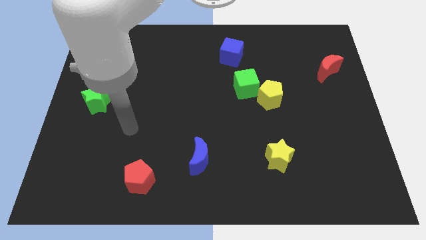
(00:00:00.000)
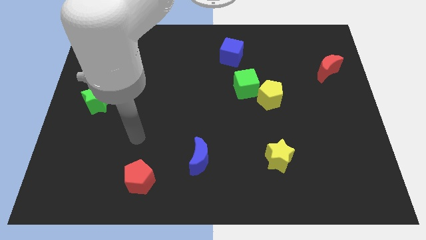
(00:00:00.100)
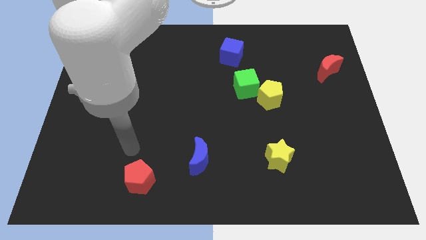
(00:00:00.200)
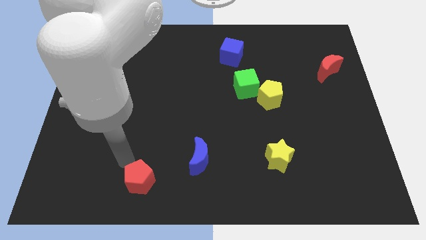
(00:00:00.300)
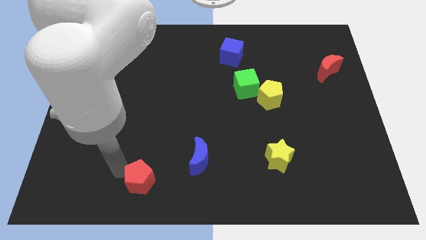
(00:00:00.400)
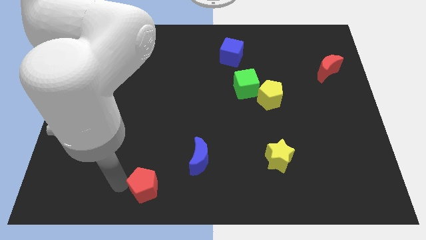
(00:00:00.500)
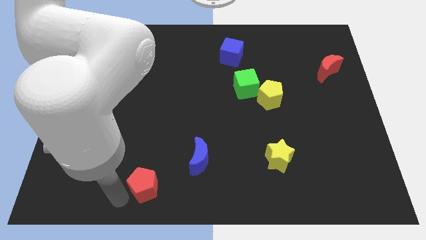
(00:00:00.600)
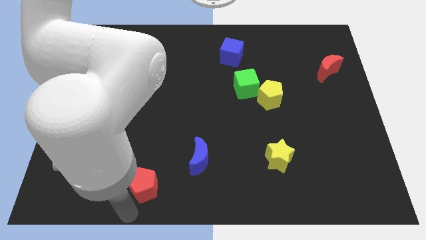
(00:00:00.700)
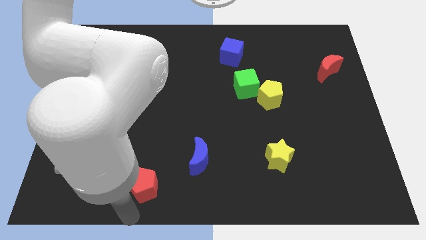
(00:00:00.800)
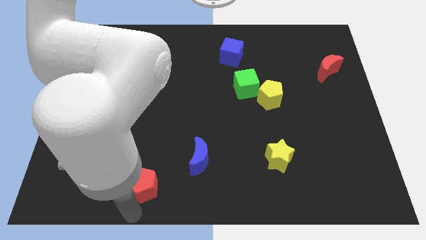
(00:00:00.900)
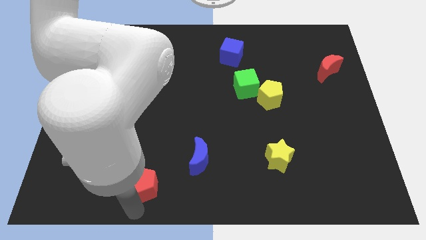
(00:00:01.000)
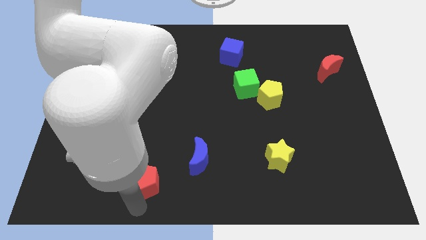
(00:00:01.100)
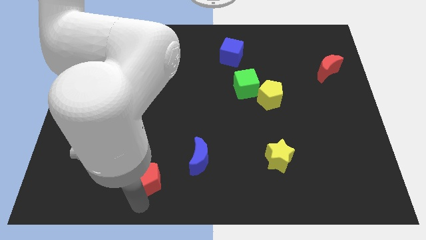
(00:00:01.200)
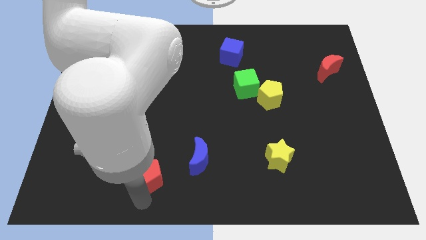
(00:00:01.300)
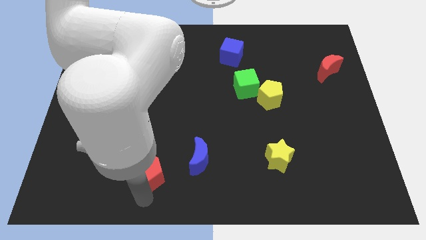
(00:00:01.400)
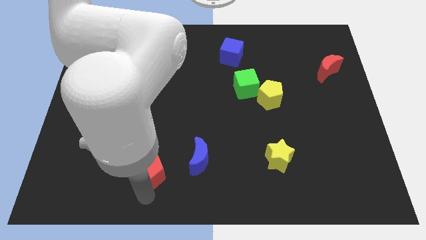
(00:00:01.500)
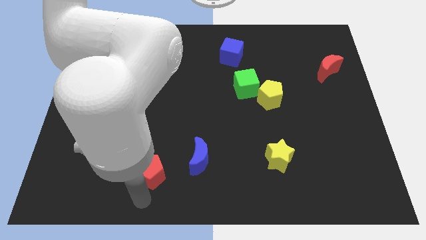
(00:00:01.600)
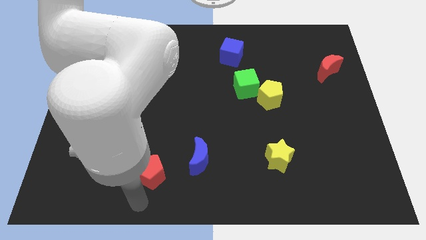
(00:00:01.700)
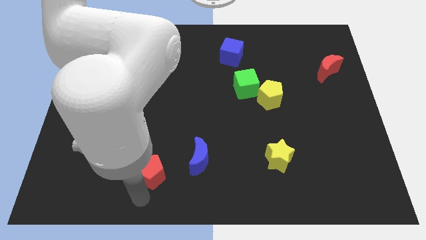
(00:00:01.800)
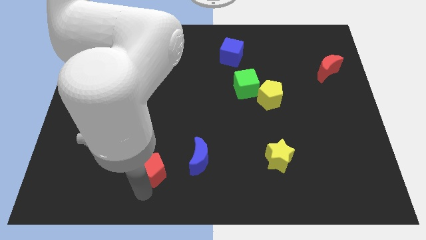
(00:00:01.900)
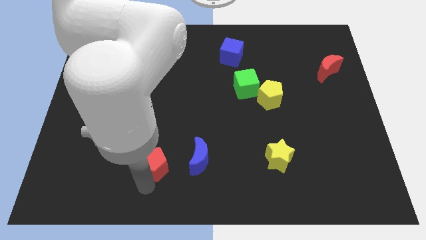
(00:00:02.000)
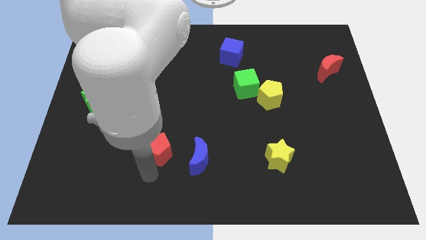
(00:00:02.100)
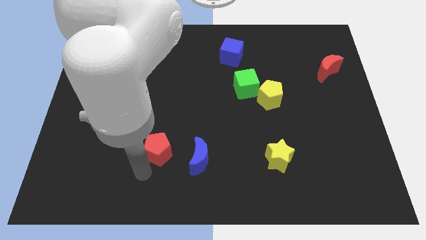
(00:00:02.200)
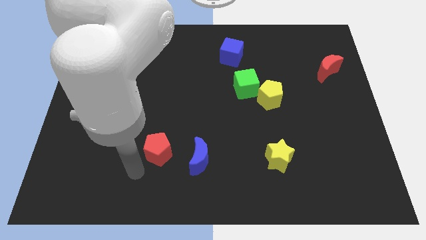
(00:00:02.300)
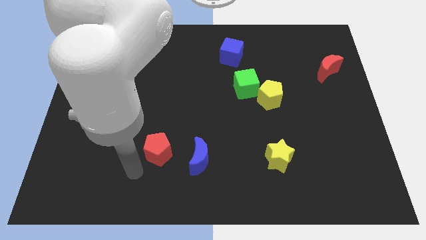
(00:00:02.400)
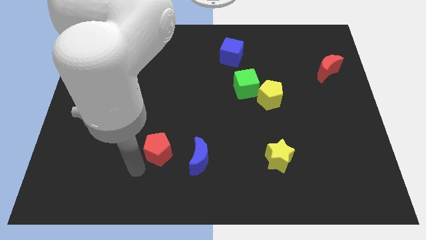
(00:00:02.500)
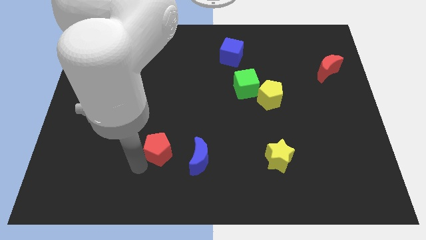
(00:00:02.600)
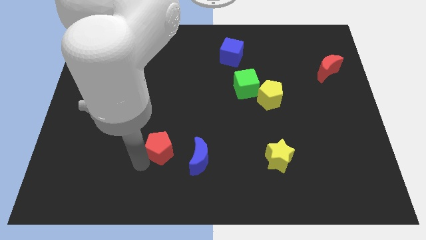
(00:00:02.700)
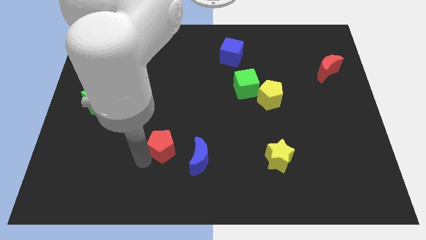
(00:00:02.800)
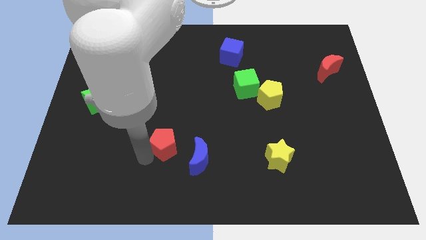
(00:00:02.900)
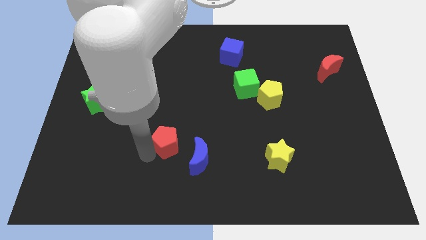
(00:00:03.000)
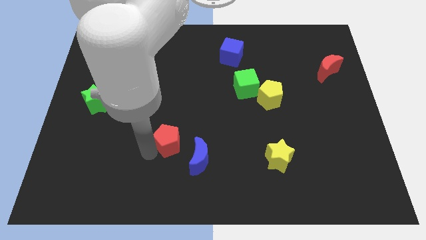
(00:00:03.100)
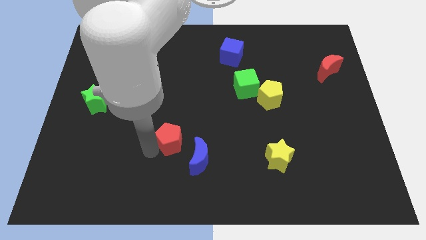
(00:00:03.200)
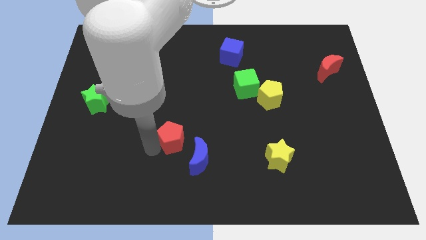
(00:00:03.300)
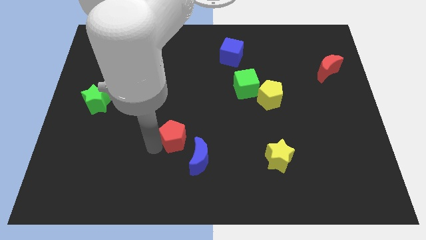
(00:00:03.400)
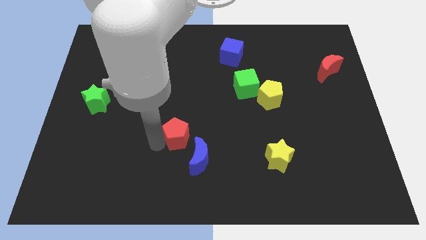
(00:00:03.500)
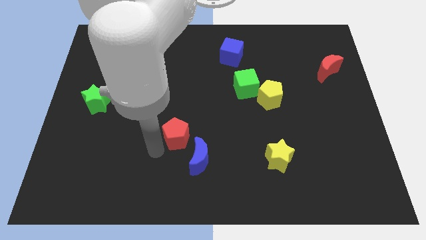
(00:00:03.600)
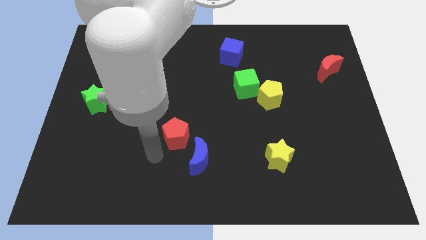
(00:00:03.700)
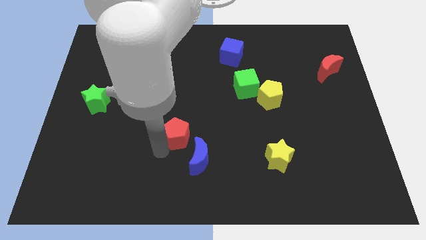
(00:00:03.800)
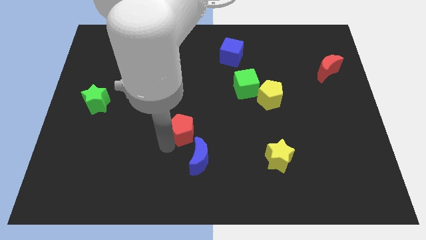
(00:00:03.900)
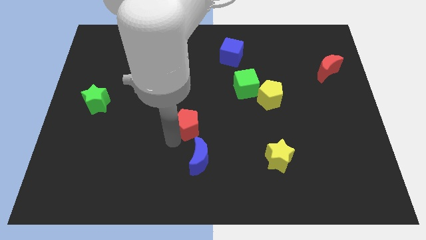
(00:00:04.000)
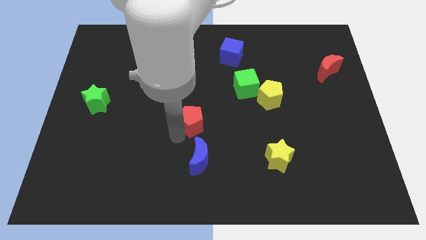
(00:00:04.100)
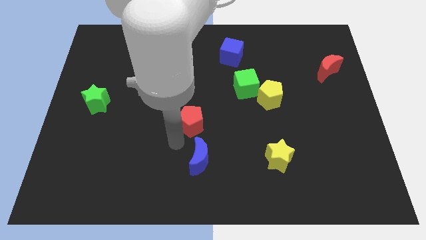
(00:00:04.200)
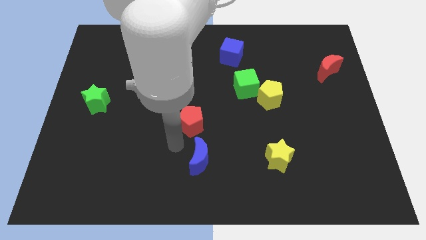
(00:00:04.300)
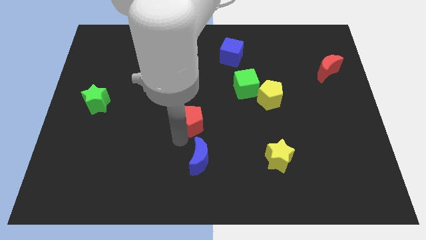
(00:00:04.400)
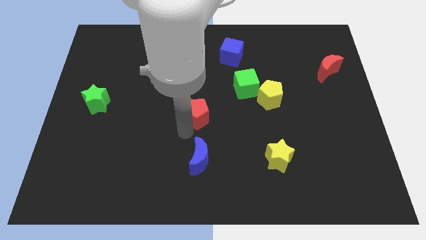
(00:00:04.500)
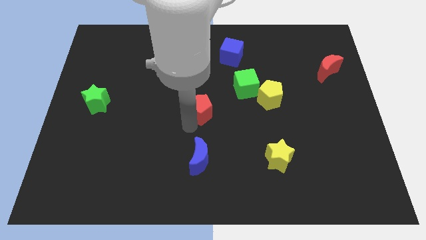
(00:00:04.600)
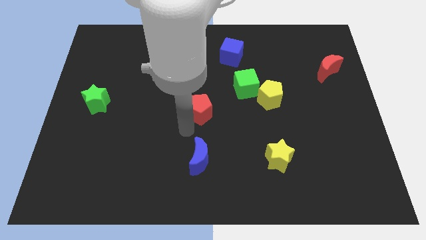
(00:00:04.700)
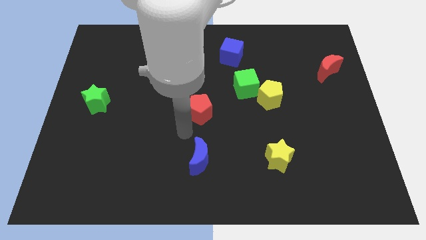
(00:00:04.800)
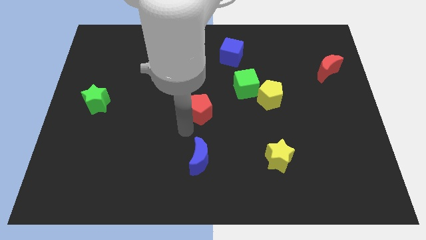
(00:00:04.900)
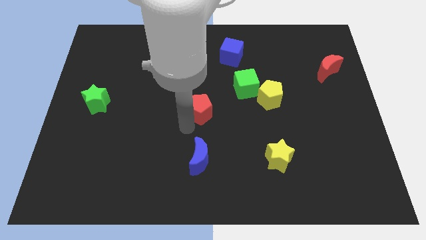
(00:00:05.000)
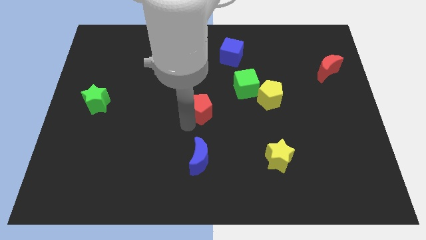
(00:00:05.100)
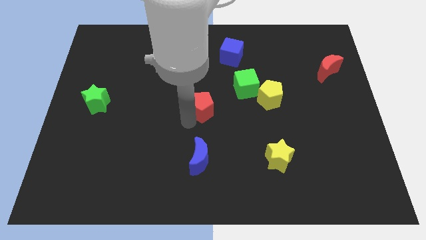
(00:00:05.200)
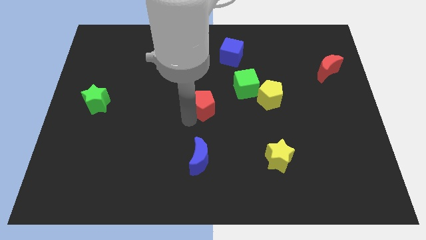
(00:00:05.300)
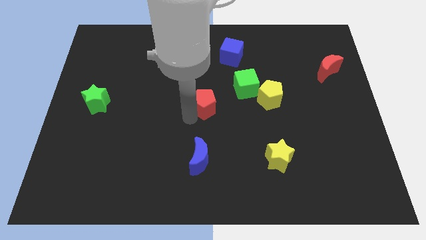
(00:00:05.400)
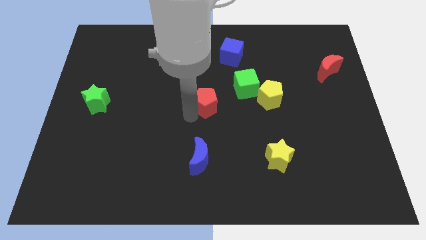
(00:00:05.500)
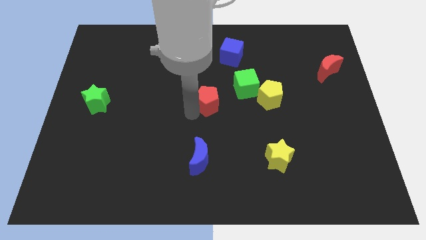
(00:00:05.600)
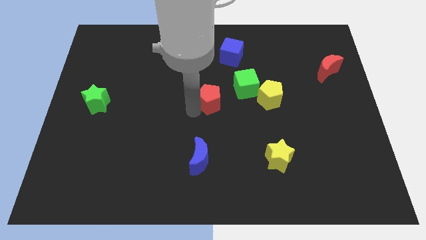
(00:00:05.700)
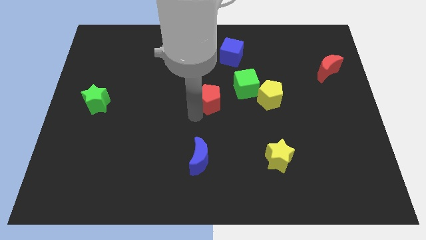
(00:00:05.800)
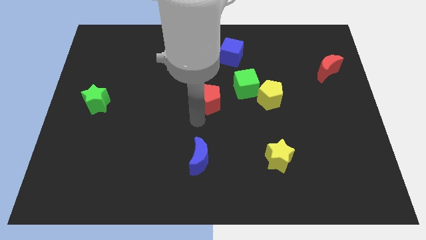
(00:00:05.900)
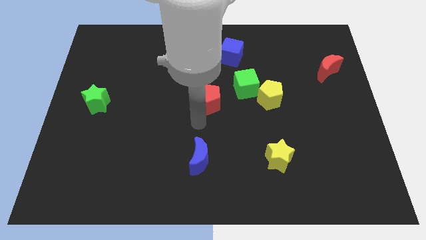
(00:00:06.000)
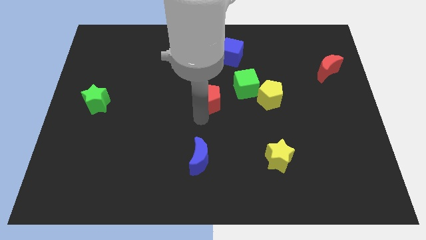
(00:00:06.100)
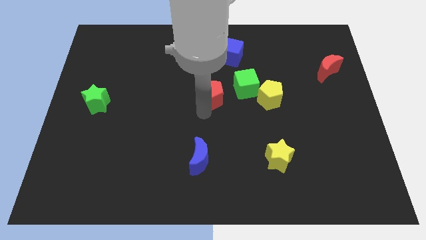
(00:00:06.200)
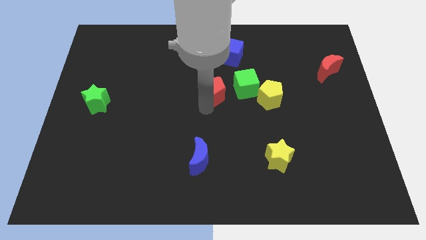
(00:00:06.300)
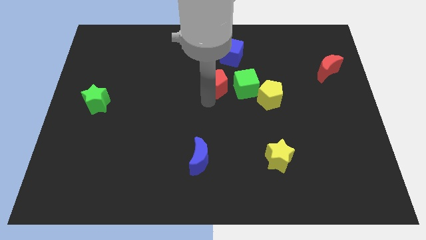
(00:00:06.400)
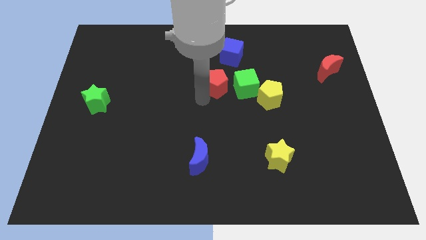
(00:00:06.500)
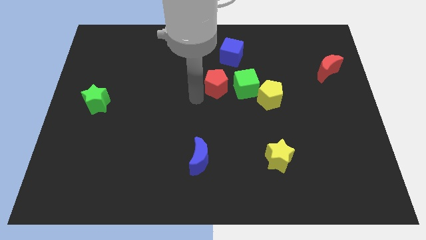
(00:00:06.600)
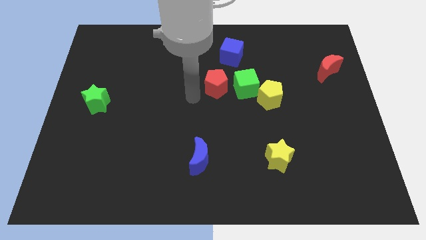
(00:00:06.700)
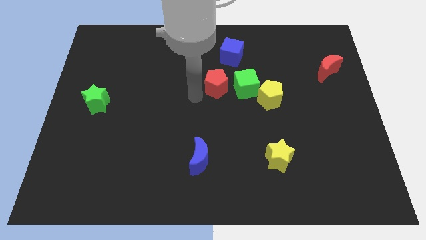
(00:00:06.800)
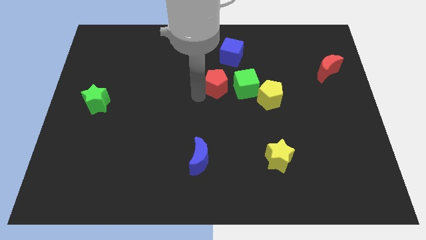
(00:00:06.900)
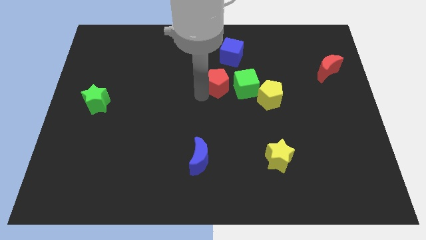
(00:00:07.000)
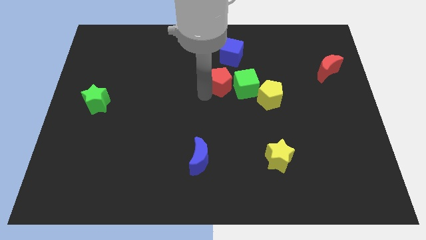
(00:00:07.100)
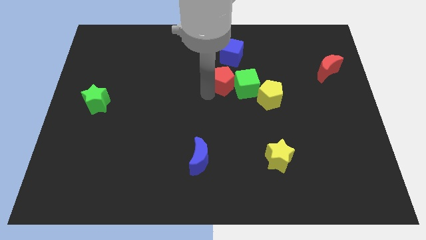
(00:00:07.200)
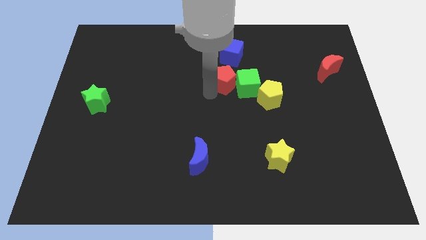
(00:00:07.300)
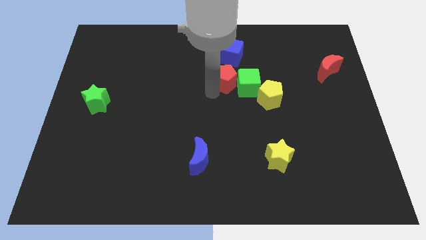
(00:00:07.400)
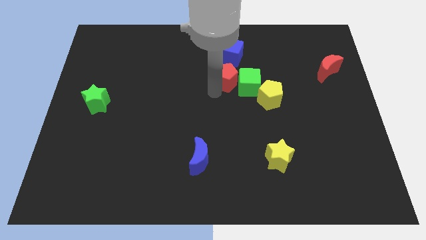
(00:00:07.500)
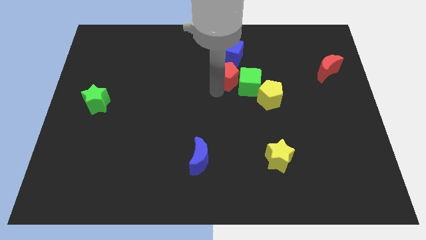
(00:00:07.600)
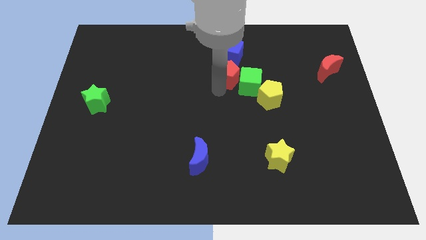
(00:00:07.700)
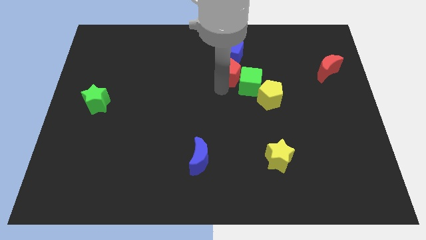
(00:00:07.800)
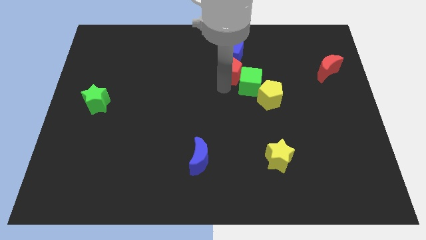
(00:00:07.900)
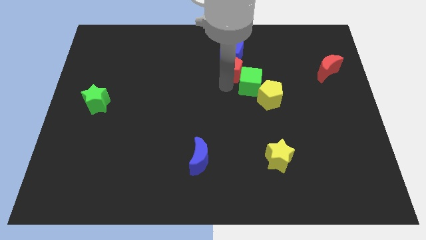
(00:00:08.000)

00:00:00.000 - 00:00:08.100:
slide the red pentagon diagonally down and to the right of the blue cube
